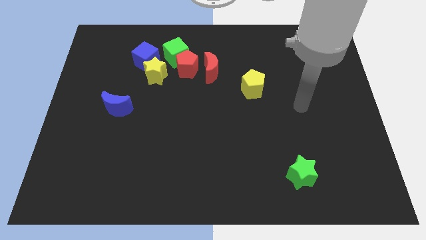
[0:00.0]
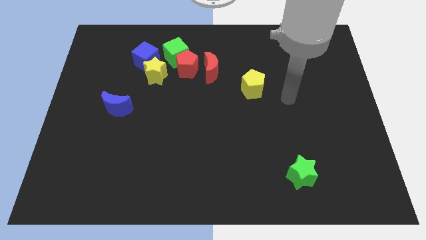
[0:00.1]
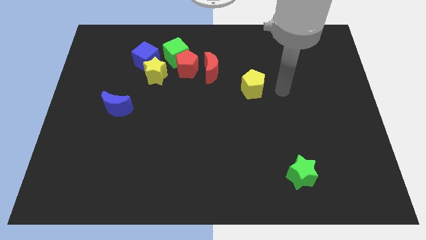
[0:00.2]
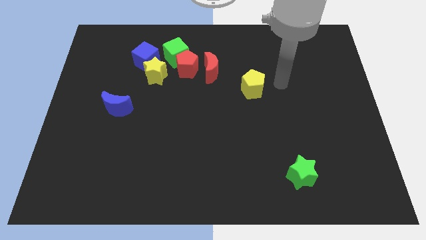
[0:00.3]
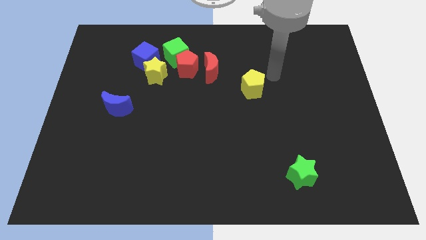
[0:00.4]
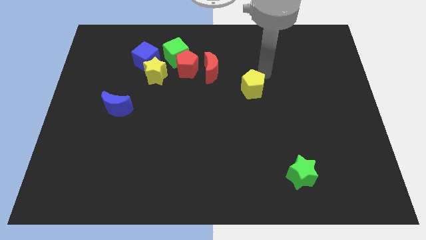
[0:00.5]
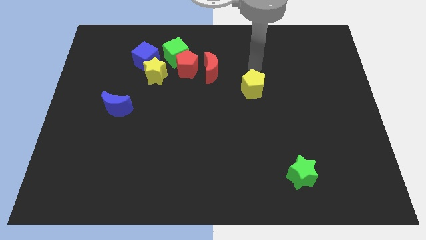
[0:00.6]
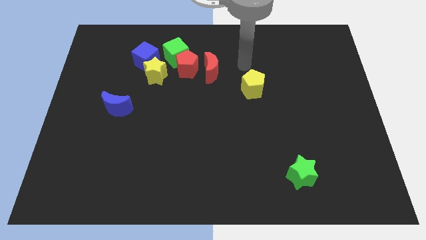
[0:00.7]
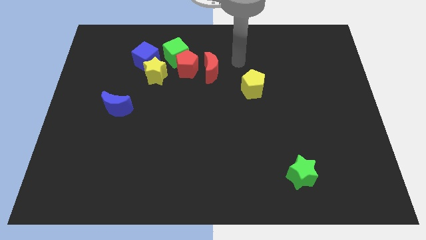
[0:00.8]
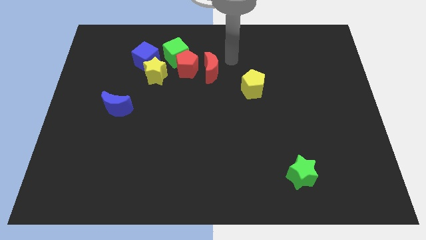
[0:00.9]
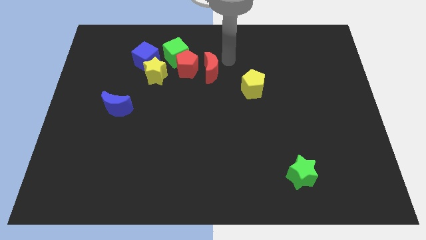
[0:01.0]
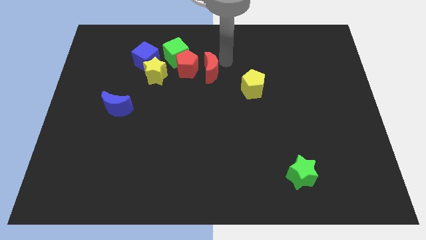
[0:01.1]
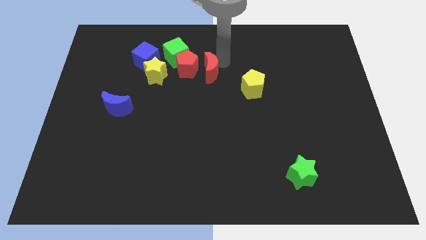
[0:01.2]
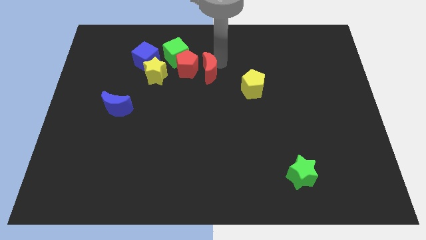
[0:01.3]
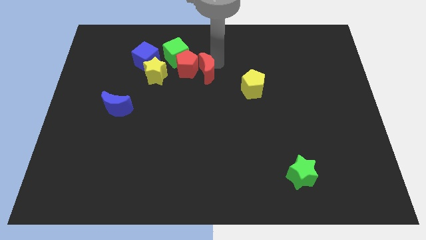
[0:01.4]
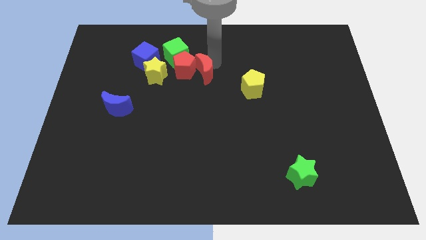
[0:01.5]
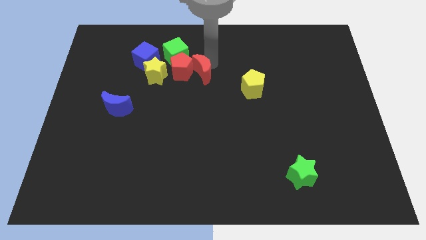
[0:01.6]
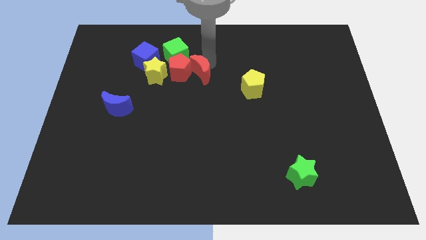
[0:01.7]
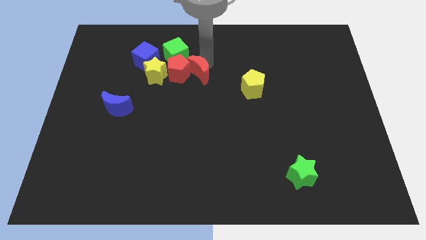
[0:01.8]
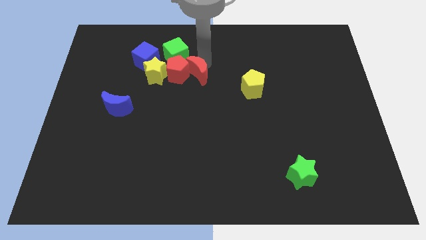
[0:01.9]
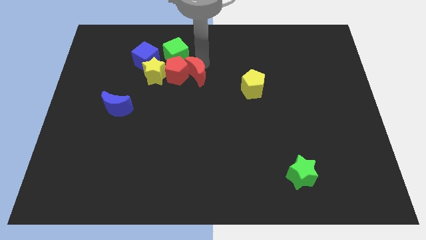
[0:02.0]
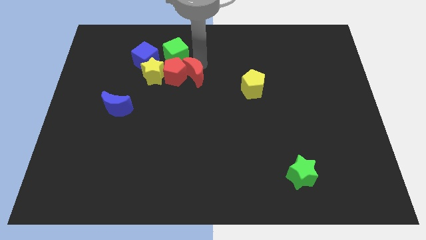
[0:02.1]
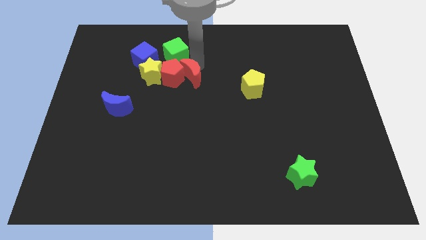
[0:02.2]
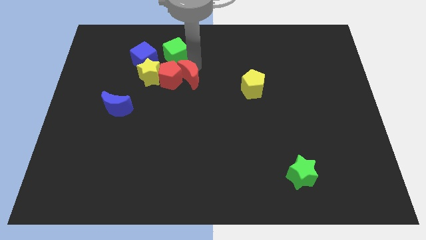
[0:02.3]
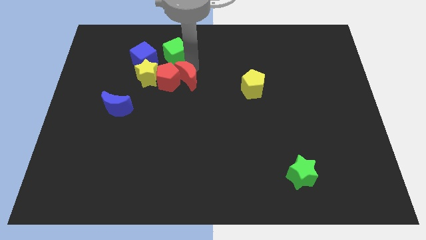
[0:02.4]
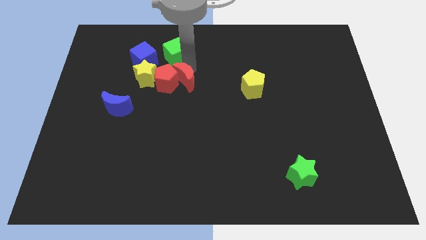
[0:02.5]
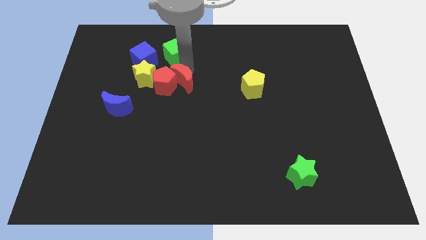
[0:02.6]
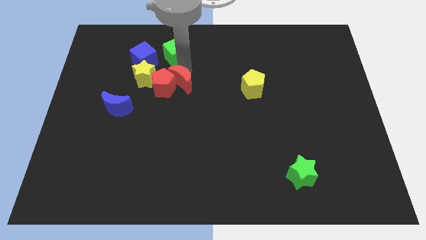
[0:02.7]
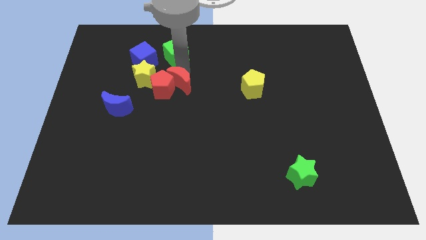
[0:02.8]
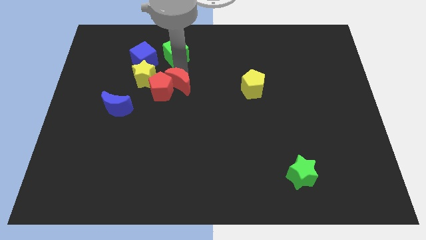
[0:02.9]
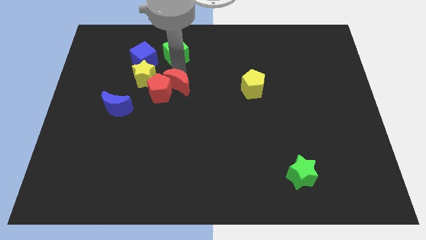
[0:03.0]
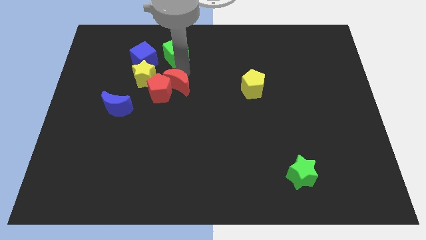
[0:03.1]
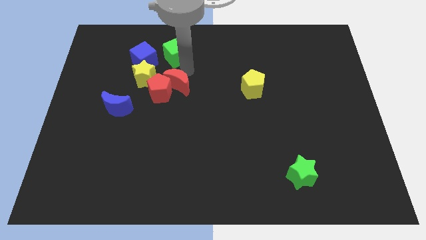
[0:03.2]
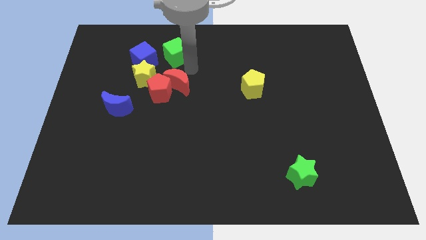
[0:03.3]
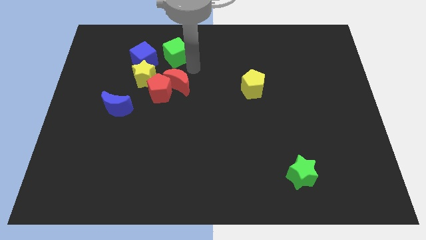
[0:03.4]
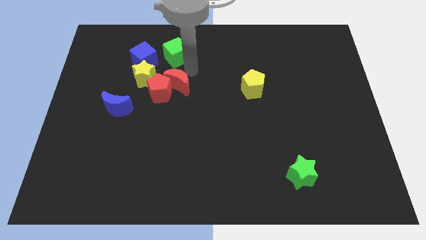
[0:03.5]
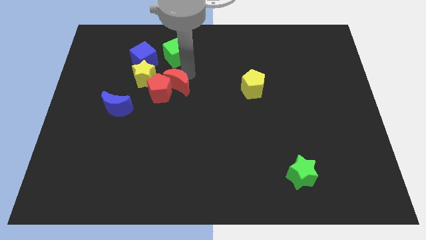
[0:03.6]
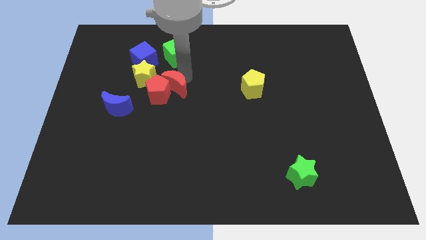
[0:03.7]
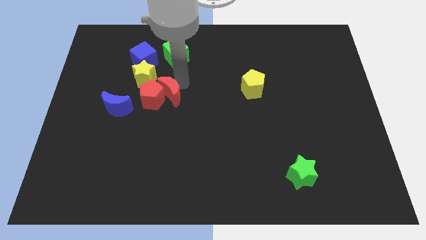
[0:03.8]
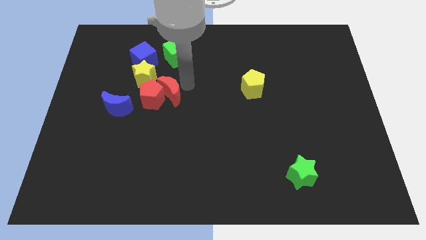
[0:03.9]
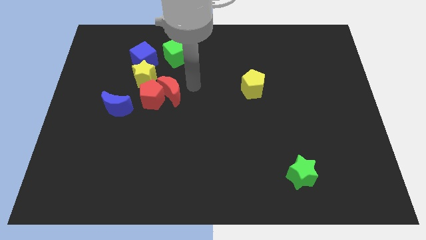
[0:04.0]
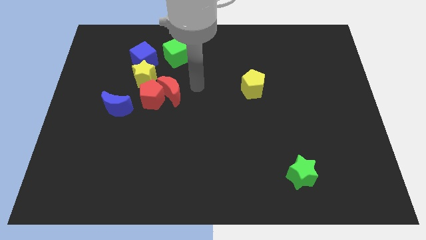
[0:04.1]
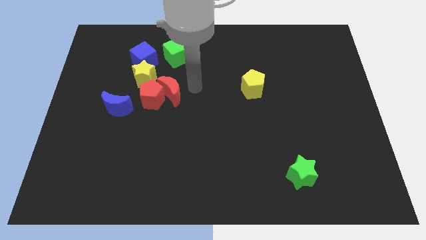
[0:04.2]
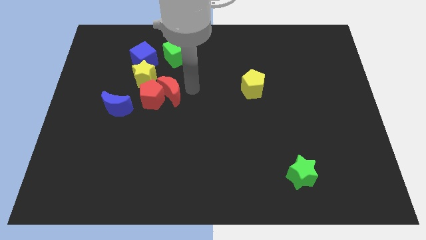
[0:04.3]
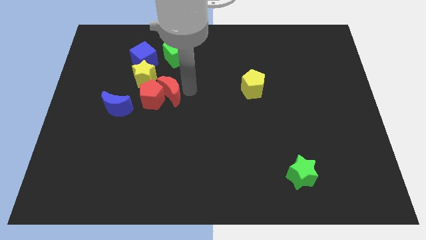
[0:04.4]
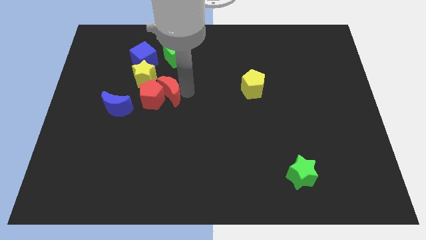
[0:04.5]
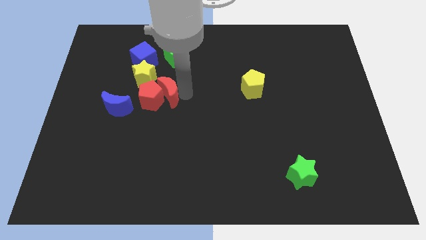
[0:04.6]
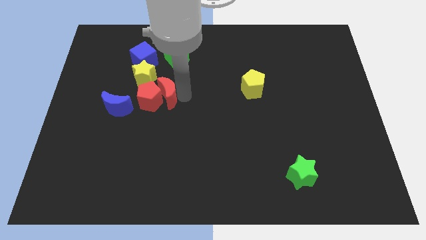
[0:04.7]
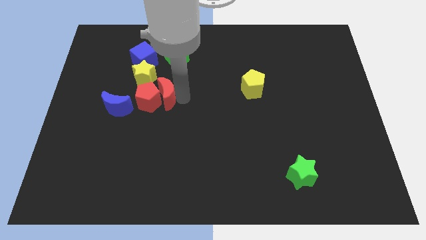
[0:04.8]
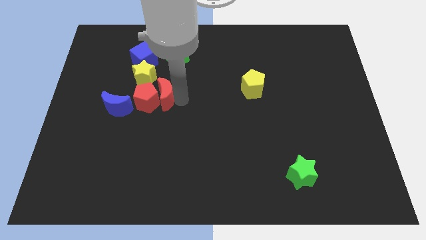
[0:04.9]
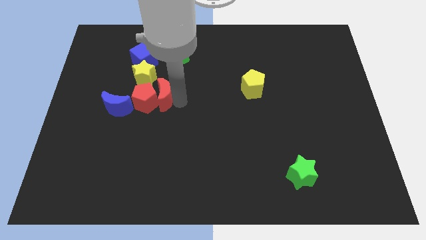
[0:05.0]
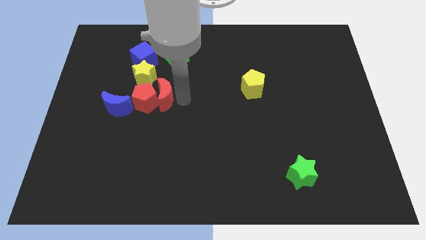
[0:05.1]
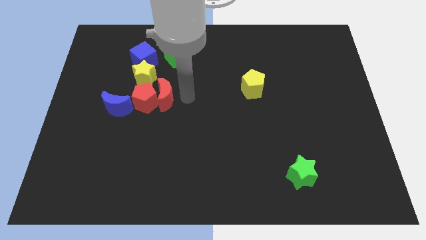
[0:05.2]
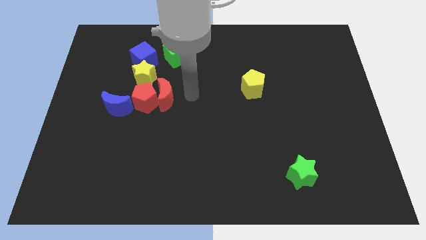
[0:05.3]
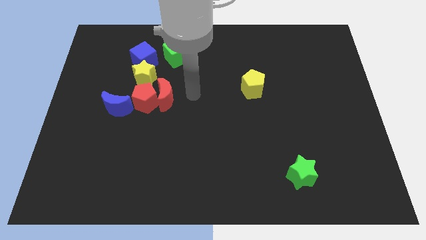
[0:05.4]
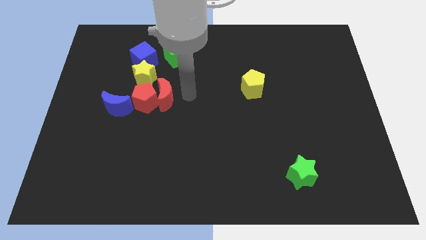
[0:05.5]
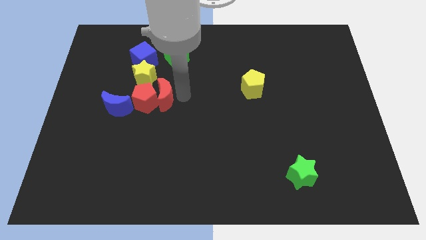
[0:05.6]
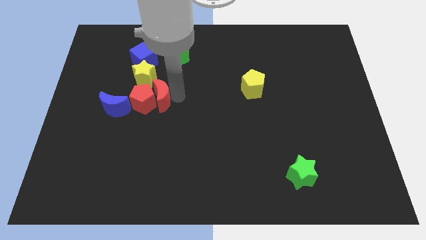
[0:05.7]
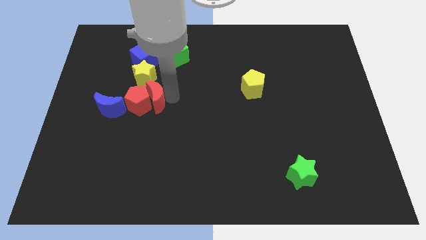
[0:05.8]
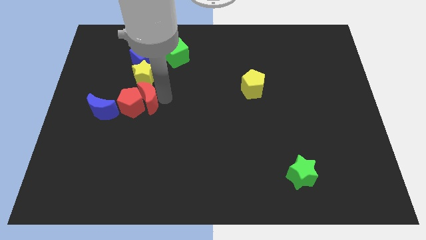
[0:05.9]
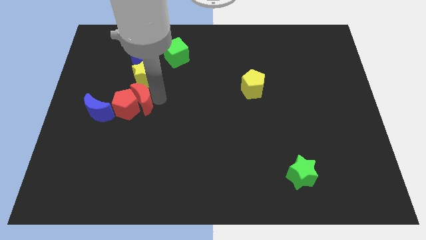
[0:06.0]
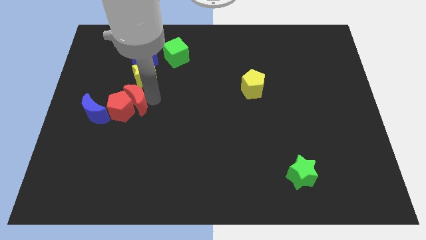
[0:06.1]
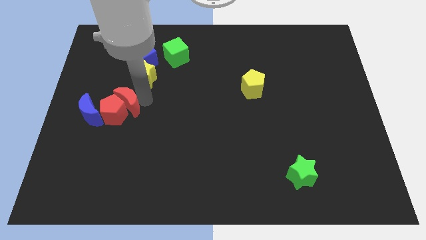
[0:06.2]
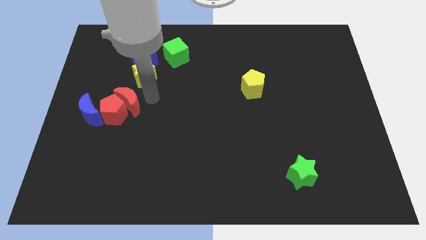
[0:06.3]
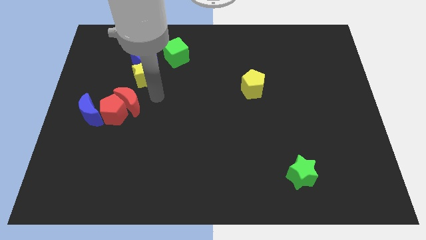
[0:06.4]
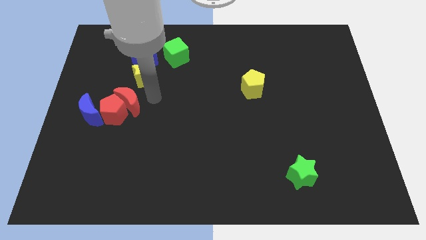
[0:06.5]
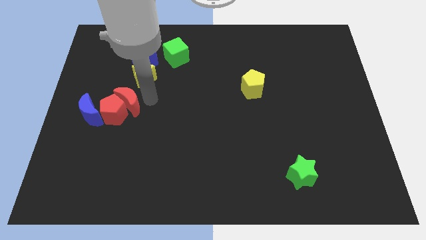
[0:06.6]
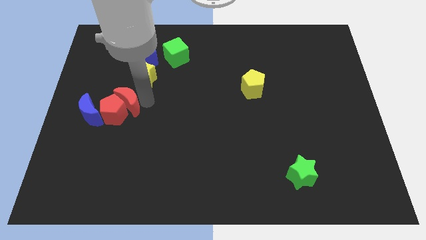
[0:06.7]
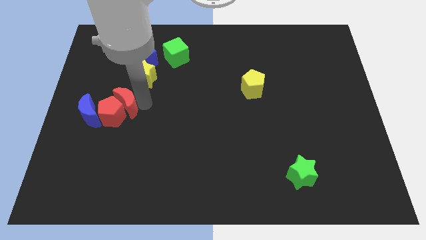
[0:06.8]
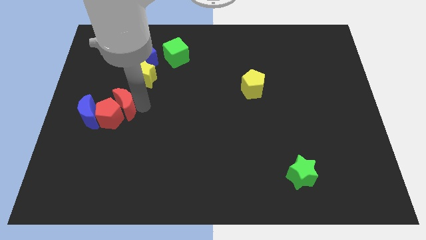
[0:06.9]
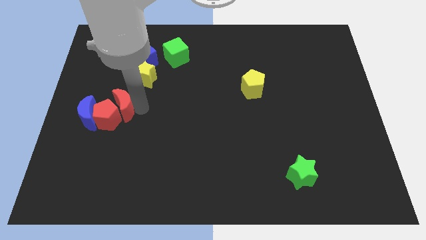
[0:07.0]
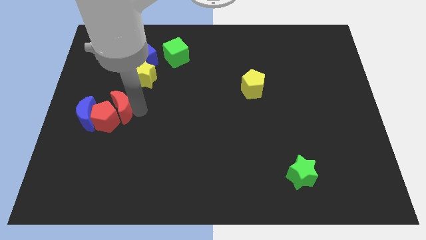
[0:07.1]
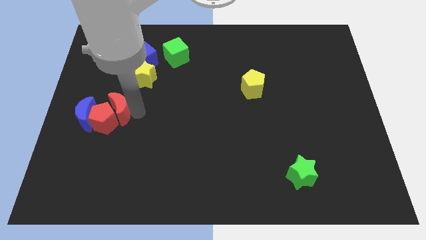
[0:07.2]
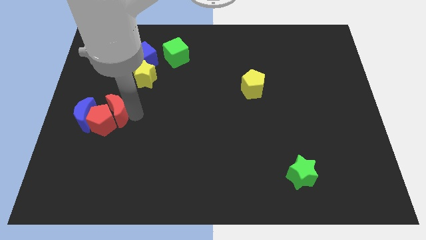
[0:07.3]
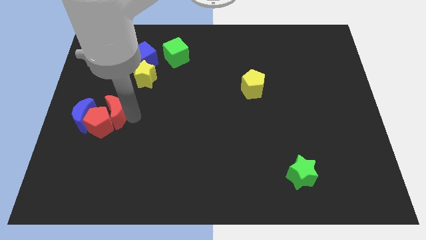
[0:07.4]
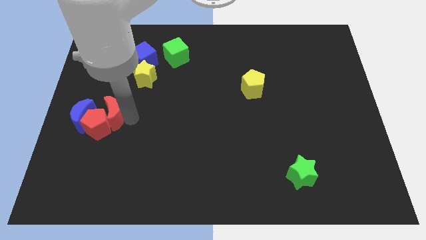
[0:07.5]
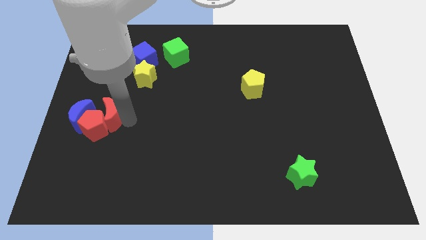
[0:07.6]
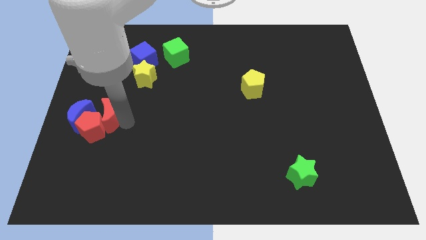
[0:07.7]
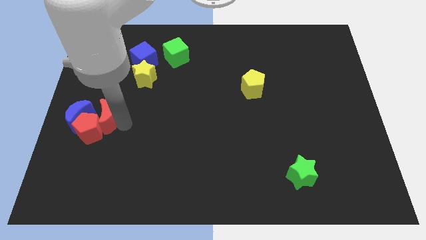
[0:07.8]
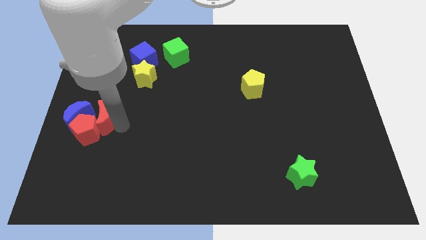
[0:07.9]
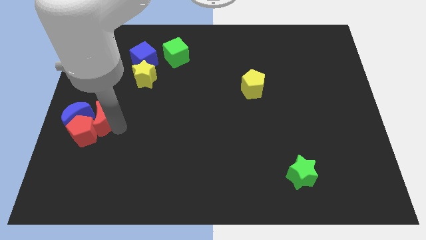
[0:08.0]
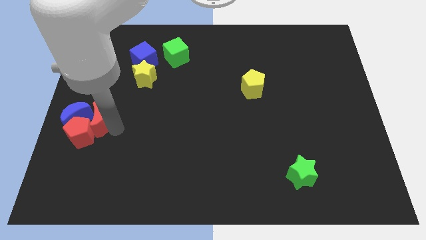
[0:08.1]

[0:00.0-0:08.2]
move the red moon to the blue moon

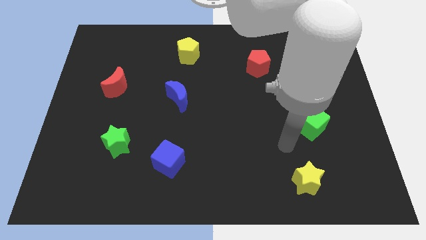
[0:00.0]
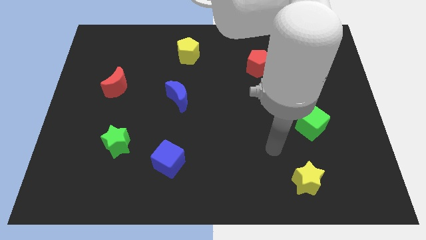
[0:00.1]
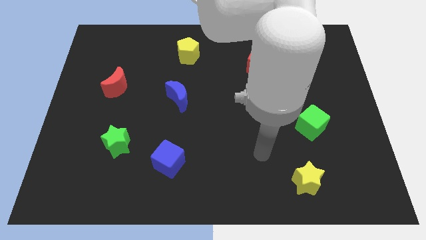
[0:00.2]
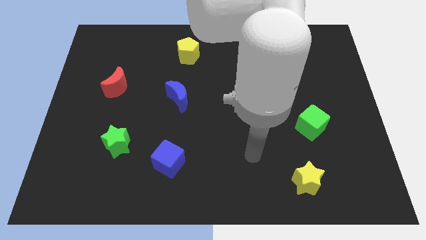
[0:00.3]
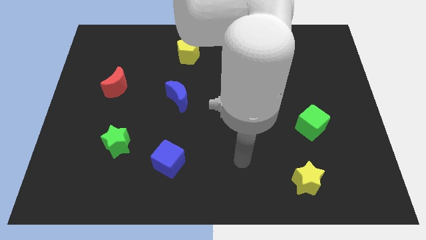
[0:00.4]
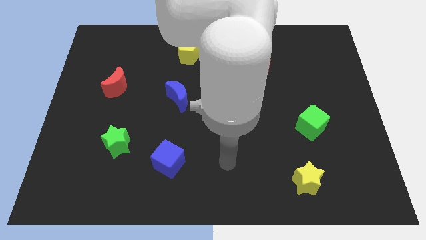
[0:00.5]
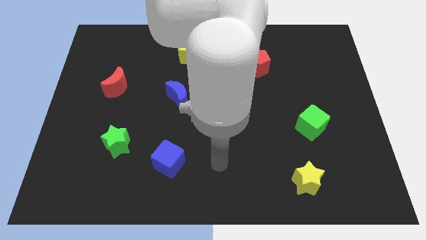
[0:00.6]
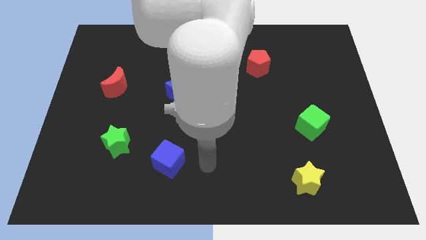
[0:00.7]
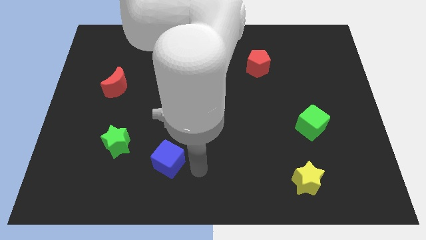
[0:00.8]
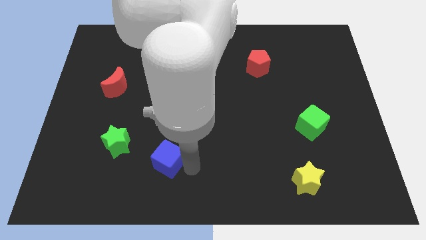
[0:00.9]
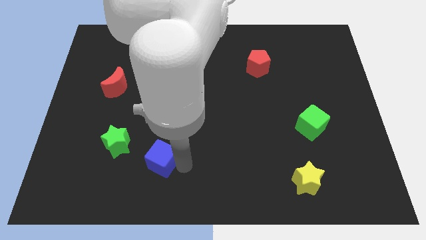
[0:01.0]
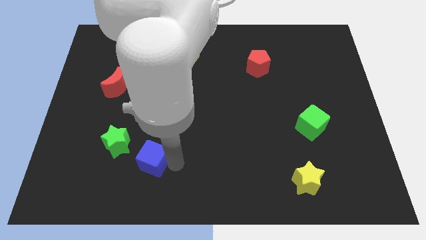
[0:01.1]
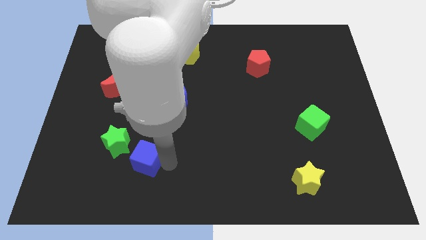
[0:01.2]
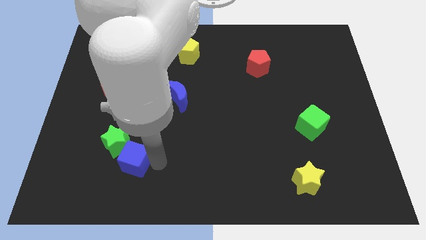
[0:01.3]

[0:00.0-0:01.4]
push the blue cube next to the green star
